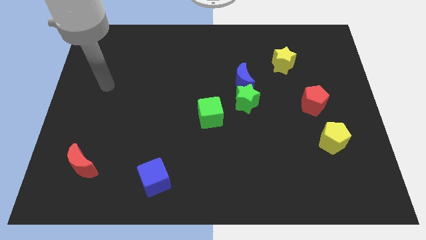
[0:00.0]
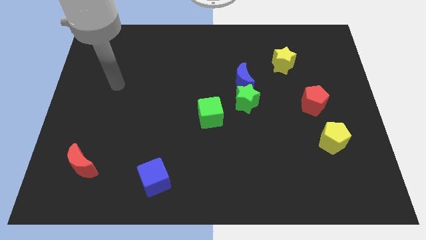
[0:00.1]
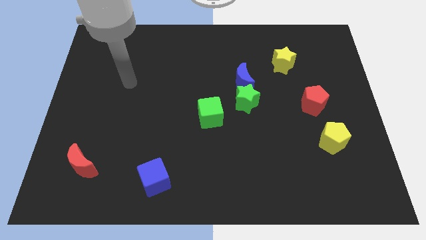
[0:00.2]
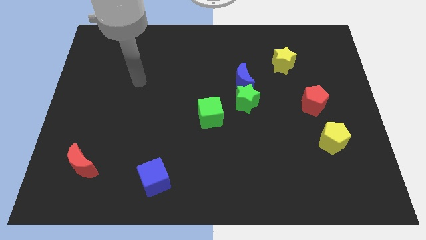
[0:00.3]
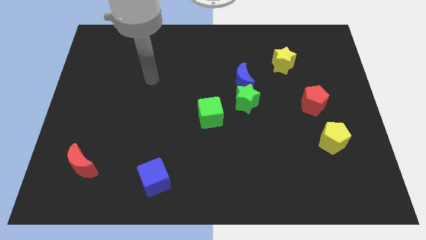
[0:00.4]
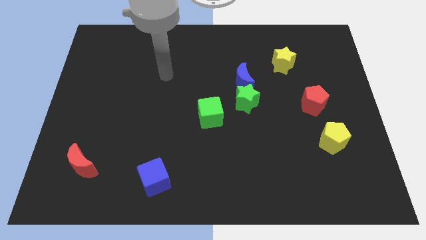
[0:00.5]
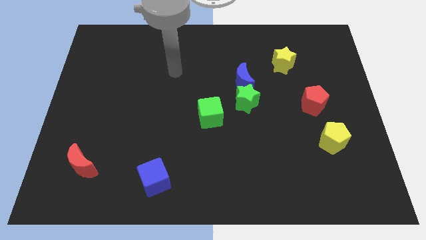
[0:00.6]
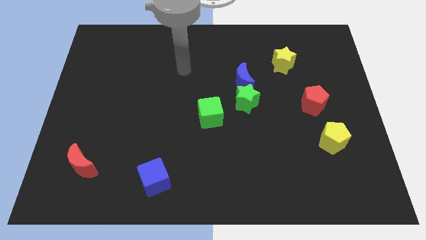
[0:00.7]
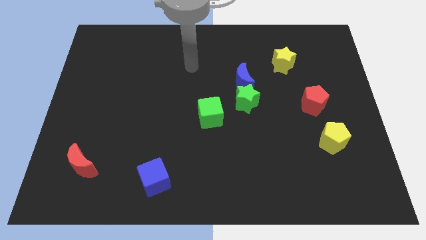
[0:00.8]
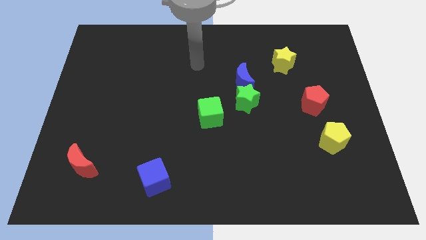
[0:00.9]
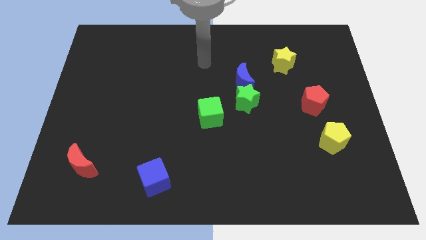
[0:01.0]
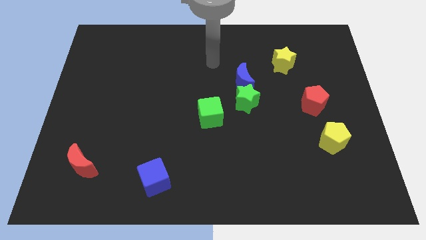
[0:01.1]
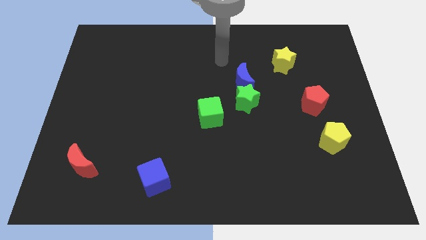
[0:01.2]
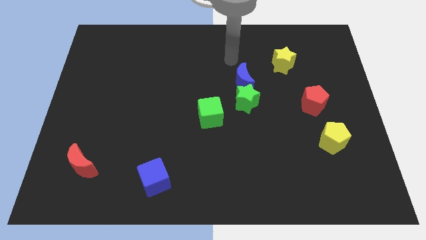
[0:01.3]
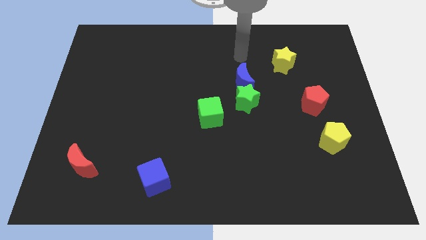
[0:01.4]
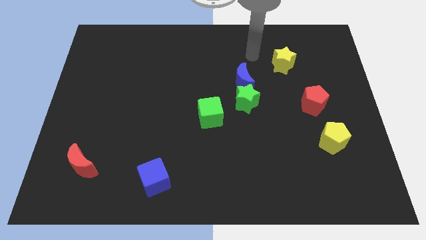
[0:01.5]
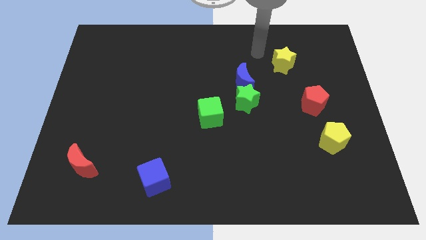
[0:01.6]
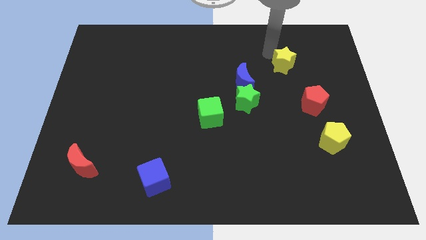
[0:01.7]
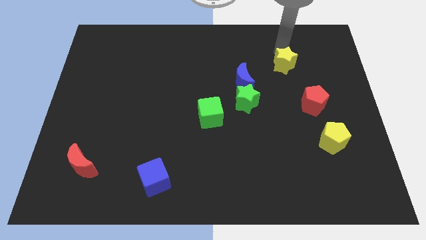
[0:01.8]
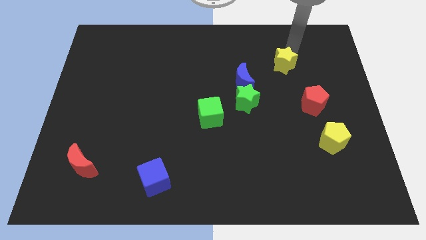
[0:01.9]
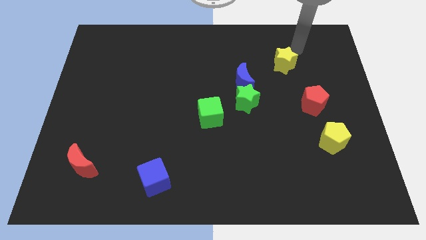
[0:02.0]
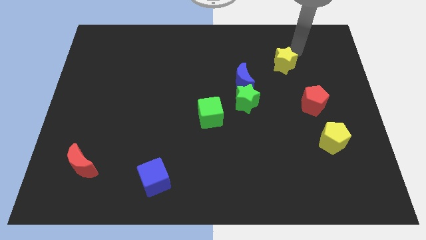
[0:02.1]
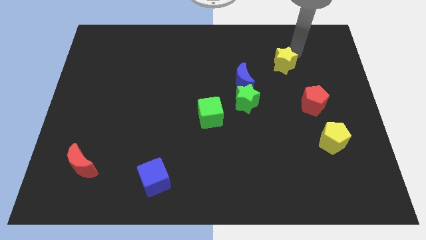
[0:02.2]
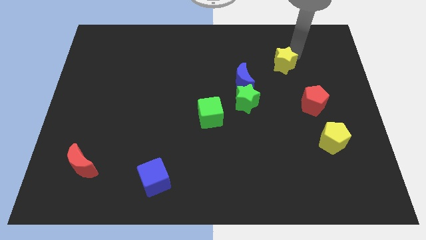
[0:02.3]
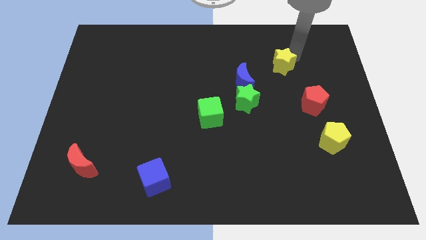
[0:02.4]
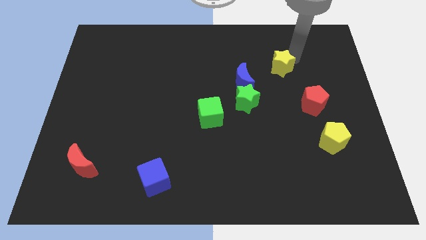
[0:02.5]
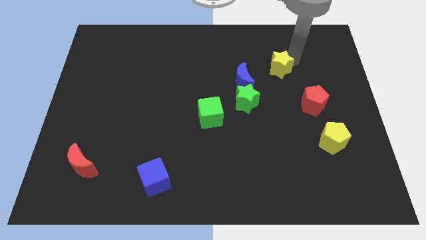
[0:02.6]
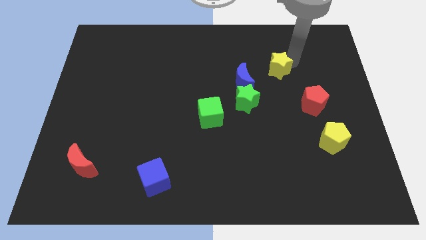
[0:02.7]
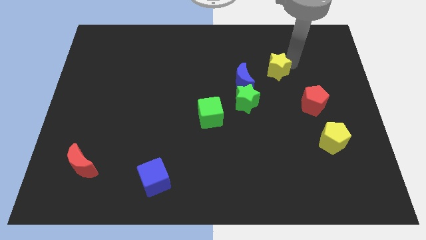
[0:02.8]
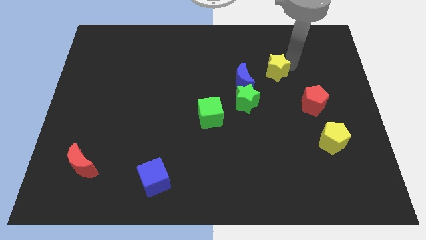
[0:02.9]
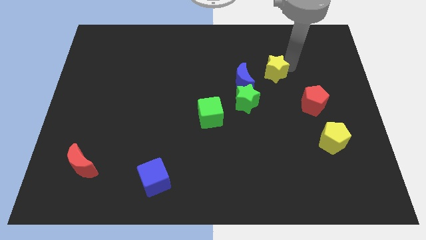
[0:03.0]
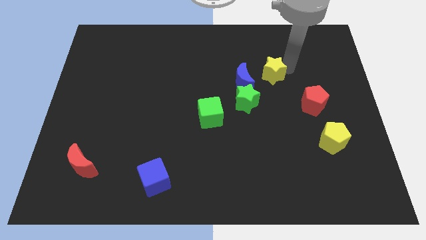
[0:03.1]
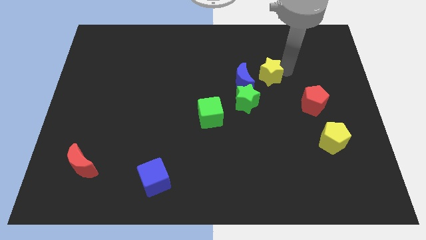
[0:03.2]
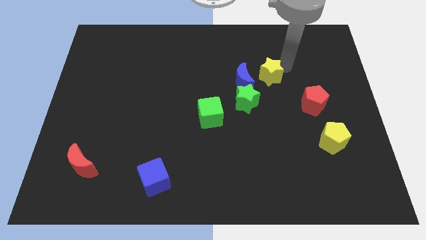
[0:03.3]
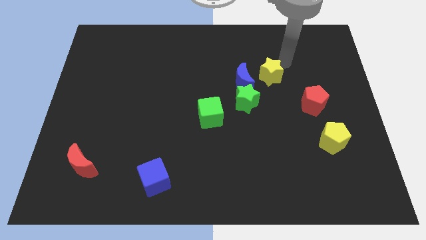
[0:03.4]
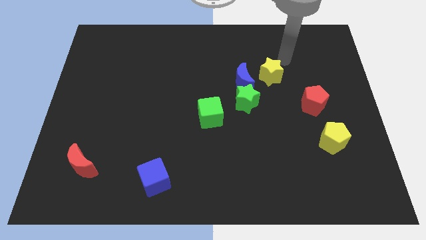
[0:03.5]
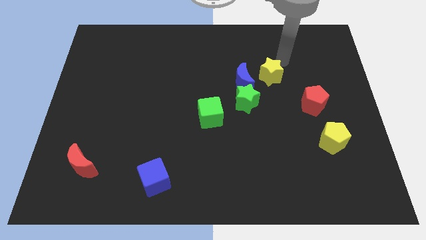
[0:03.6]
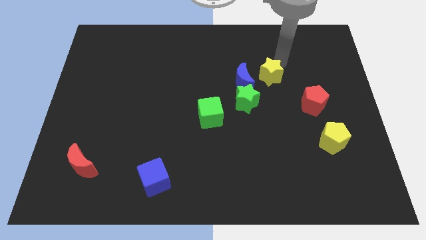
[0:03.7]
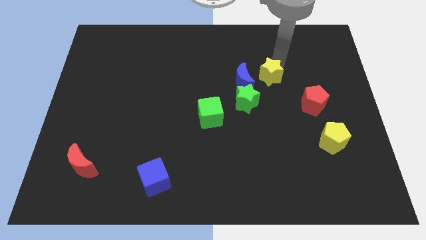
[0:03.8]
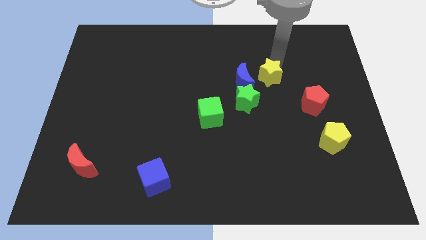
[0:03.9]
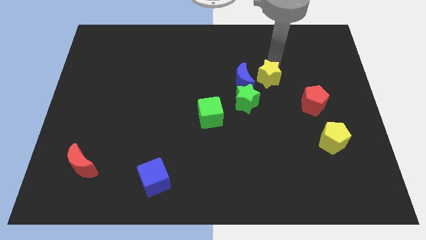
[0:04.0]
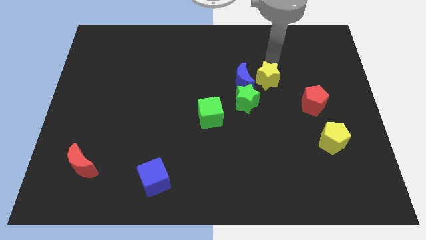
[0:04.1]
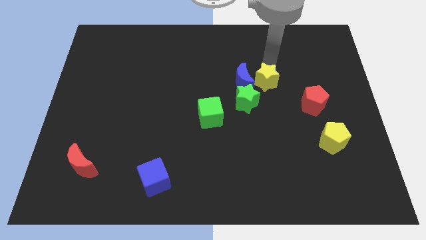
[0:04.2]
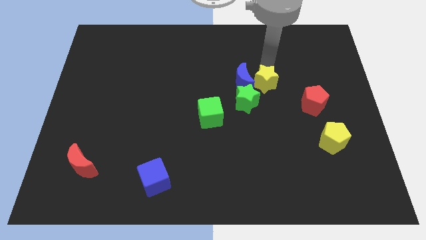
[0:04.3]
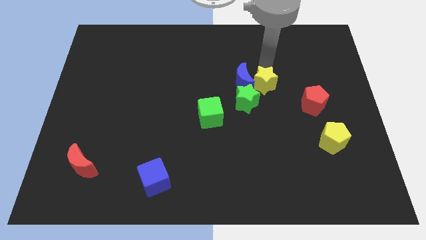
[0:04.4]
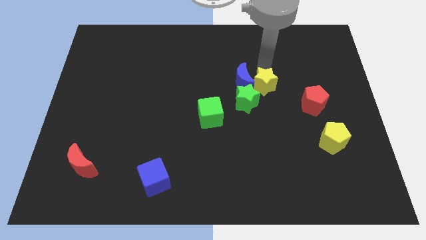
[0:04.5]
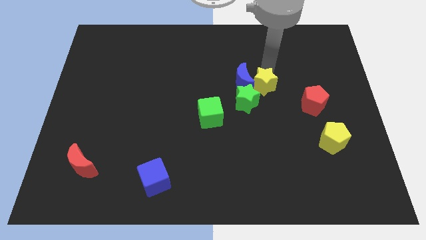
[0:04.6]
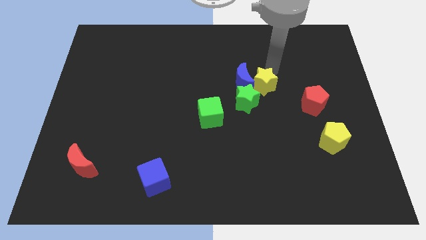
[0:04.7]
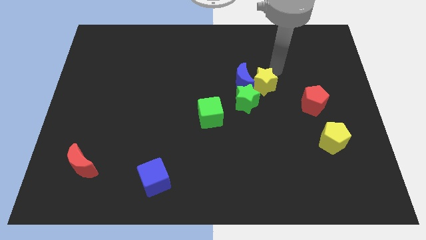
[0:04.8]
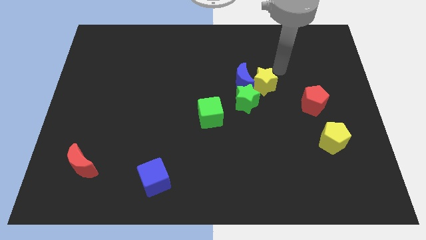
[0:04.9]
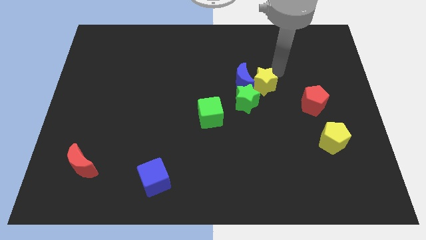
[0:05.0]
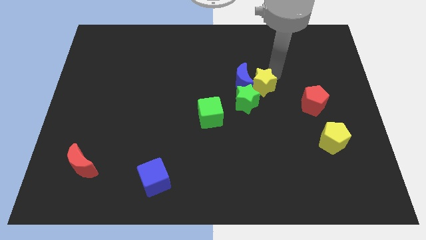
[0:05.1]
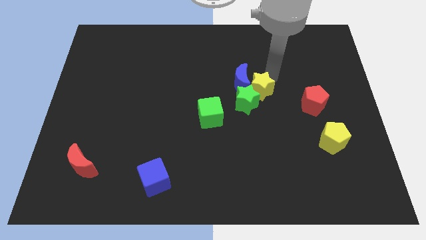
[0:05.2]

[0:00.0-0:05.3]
push the yellow star close to the green star

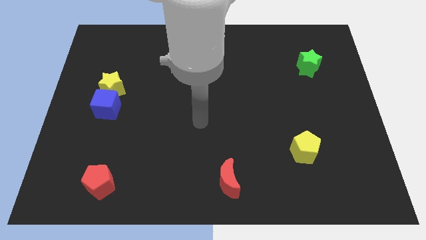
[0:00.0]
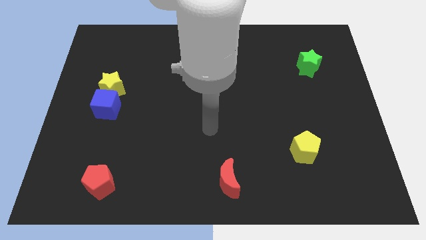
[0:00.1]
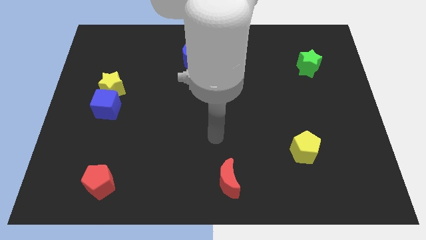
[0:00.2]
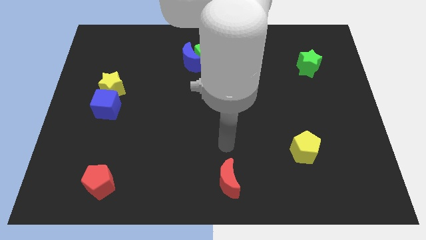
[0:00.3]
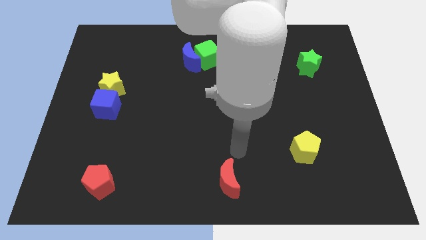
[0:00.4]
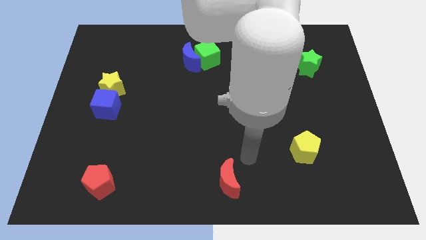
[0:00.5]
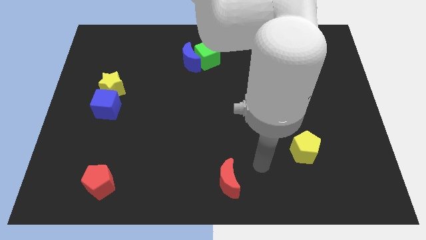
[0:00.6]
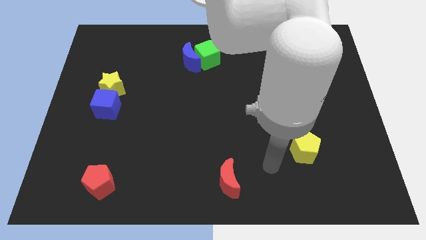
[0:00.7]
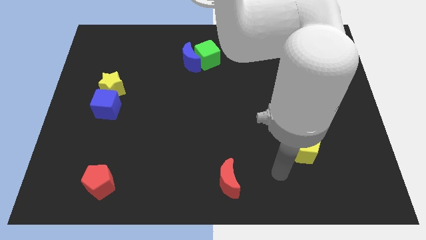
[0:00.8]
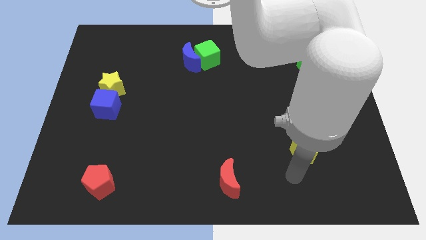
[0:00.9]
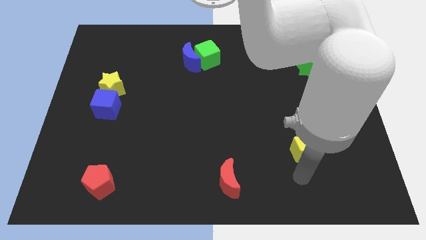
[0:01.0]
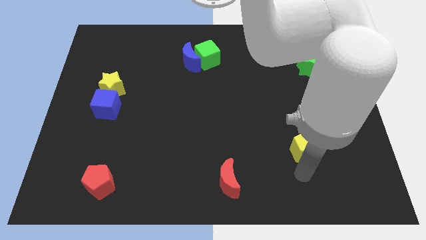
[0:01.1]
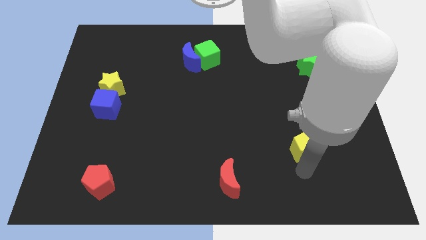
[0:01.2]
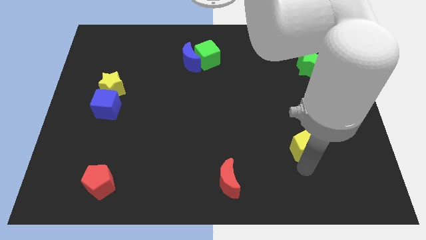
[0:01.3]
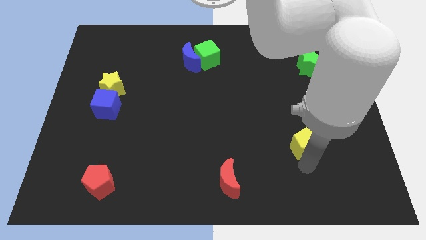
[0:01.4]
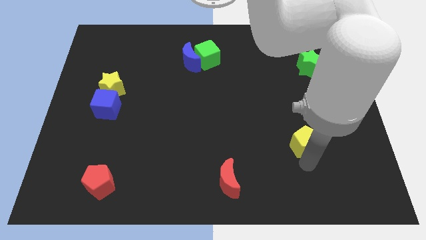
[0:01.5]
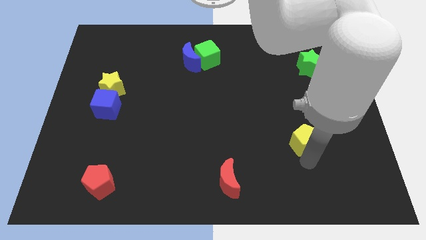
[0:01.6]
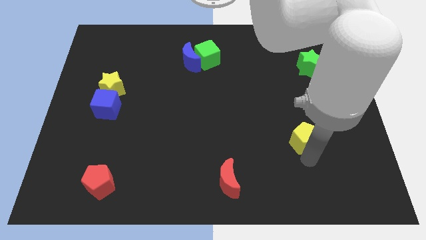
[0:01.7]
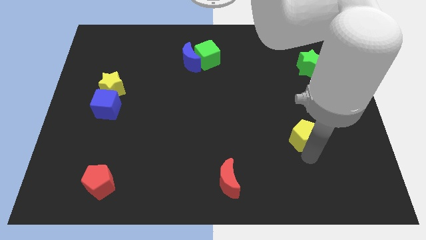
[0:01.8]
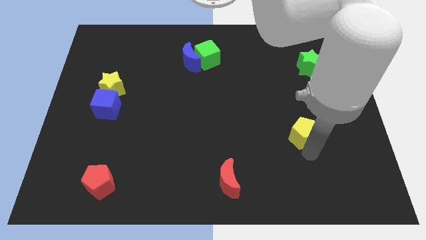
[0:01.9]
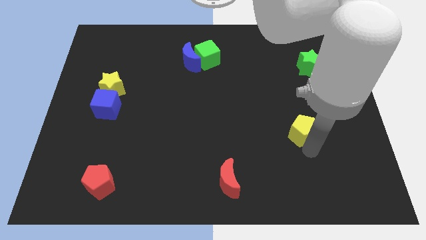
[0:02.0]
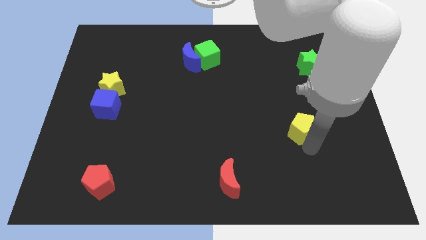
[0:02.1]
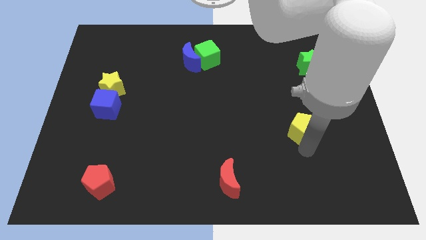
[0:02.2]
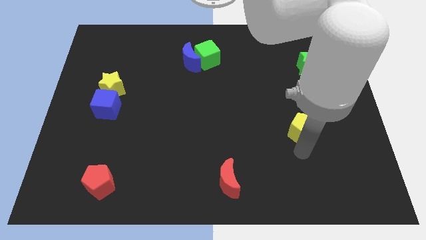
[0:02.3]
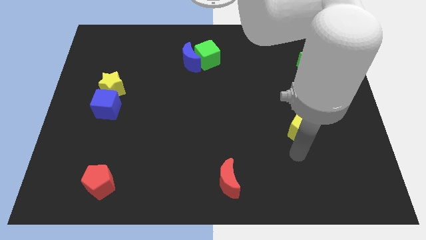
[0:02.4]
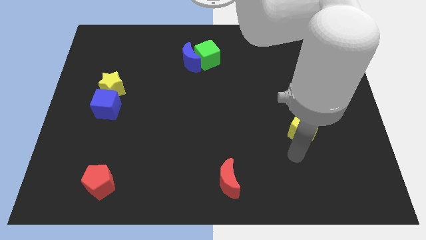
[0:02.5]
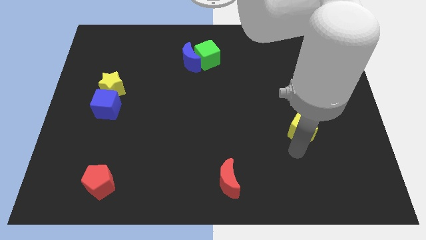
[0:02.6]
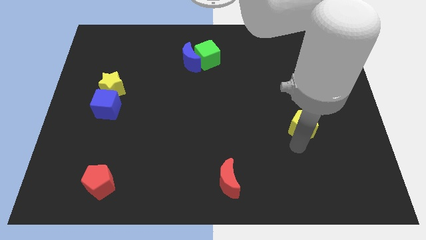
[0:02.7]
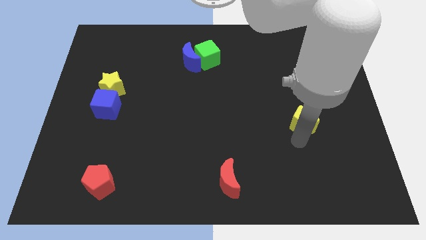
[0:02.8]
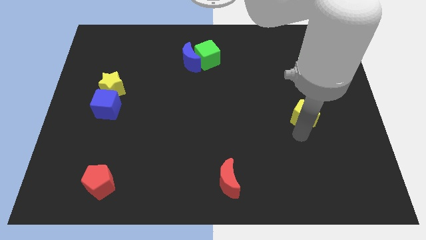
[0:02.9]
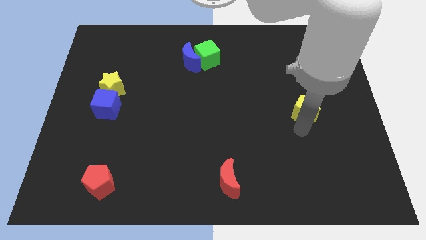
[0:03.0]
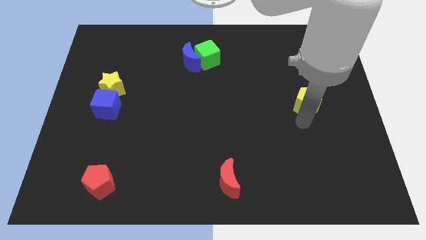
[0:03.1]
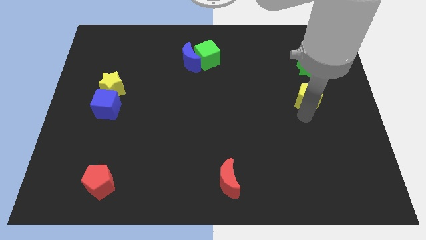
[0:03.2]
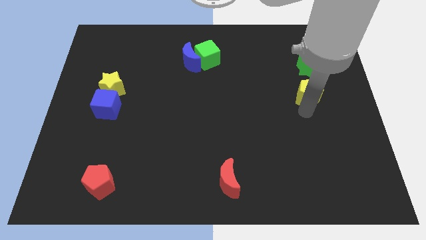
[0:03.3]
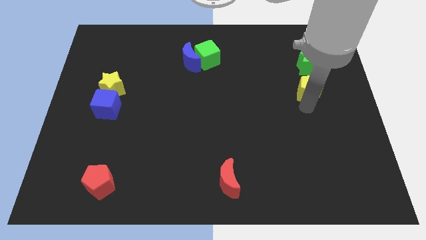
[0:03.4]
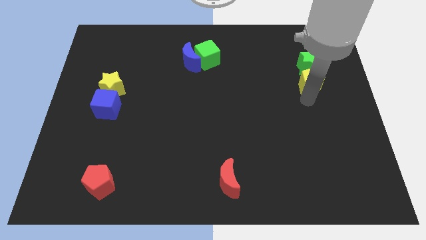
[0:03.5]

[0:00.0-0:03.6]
put the yellow pentagon towards the green star
